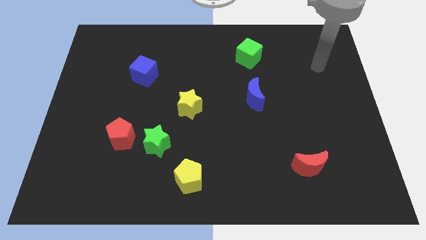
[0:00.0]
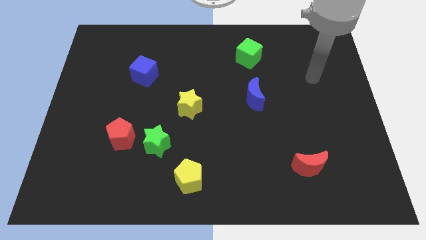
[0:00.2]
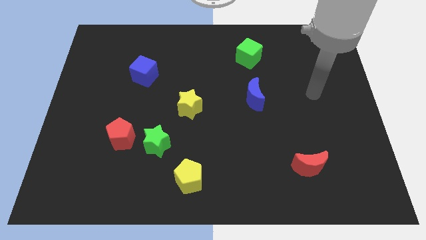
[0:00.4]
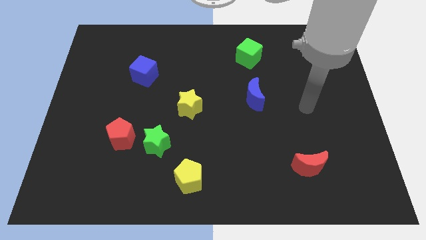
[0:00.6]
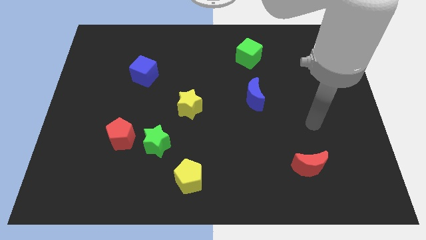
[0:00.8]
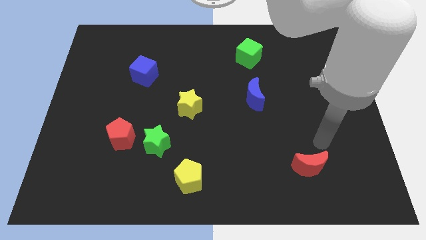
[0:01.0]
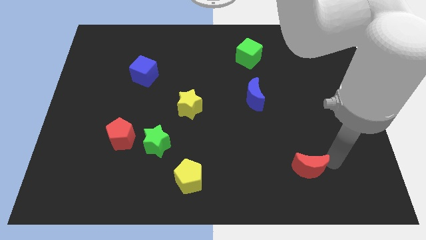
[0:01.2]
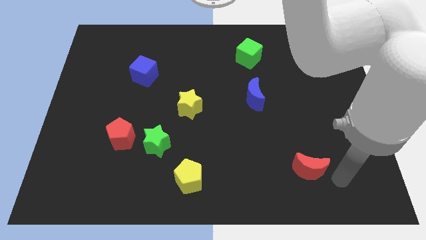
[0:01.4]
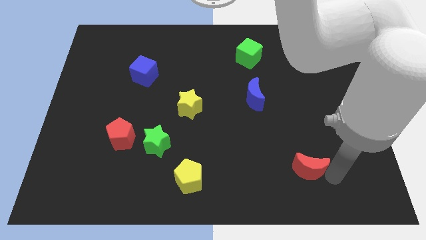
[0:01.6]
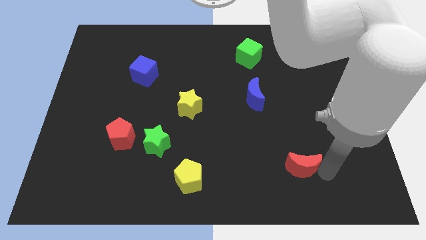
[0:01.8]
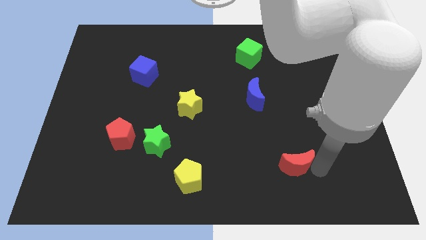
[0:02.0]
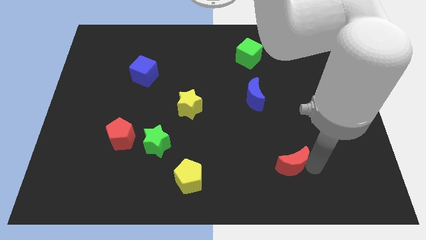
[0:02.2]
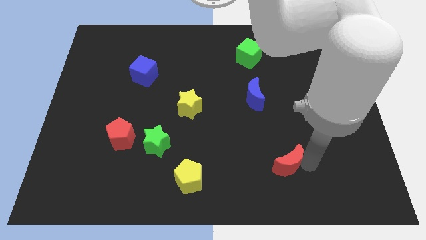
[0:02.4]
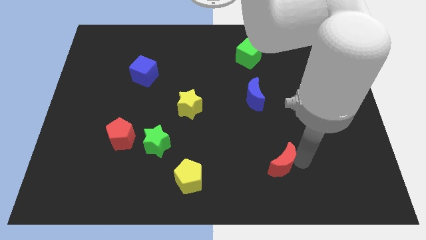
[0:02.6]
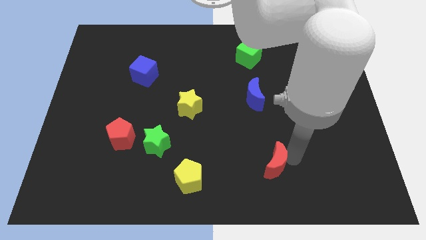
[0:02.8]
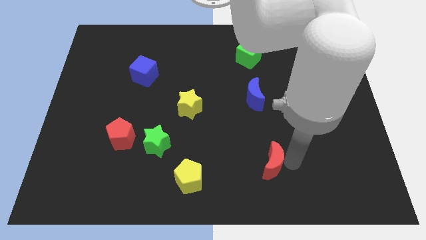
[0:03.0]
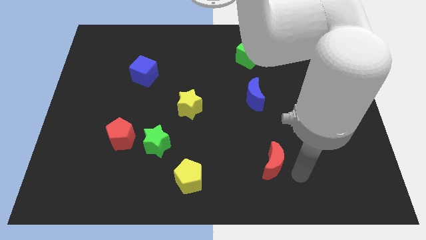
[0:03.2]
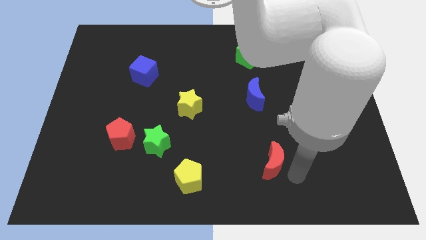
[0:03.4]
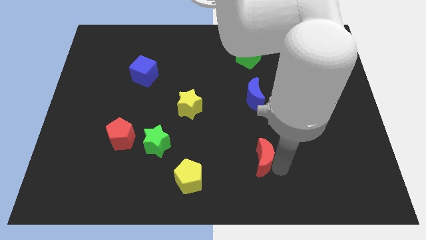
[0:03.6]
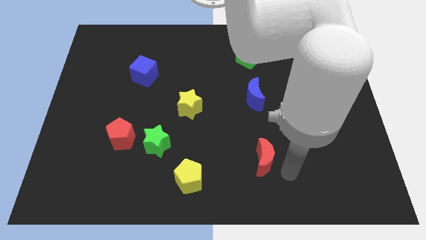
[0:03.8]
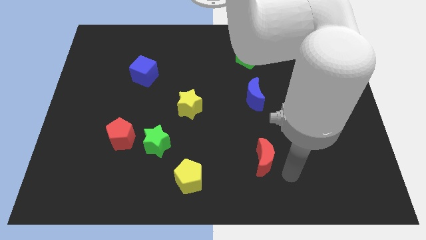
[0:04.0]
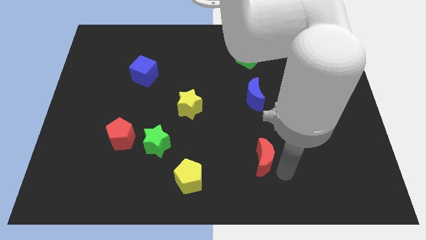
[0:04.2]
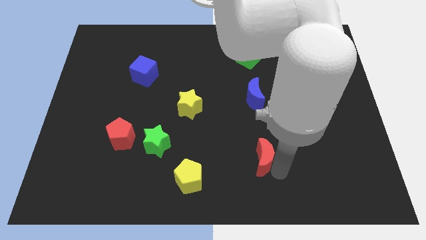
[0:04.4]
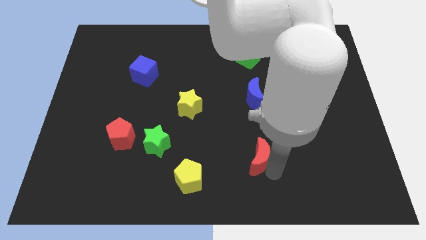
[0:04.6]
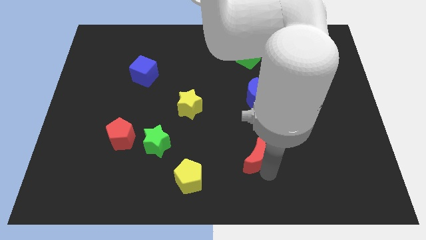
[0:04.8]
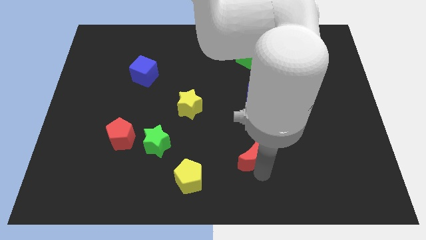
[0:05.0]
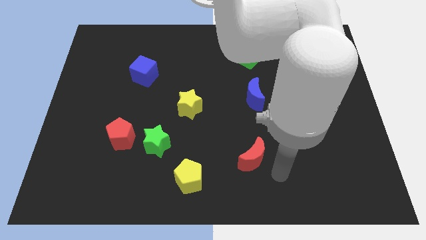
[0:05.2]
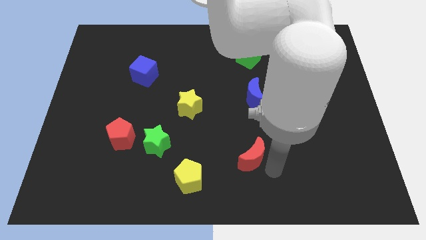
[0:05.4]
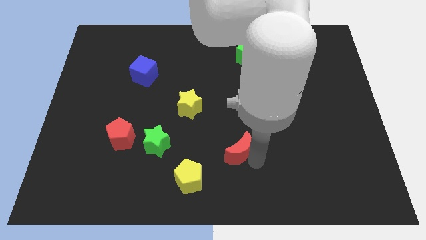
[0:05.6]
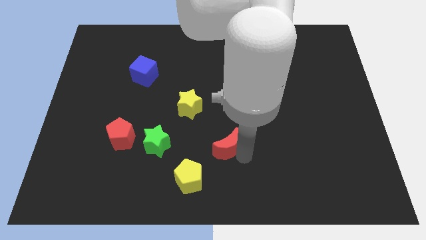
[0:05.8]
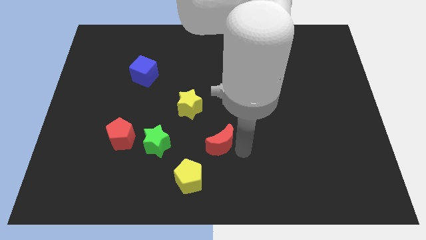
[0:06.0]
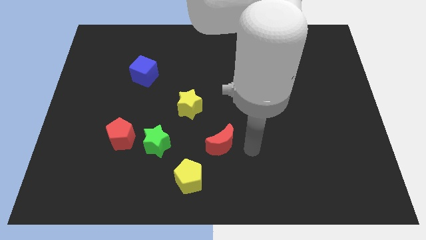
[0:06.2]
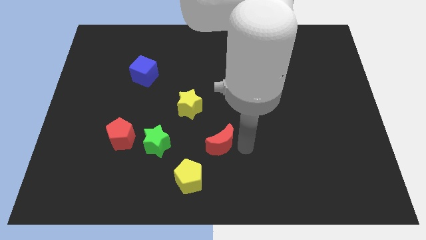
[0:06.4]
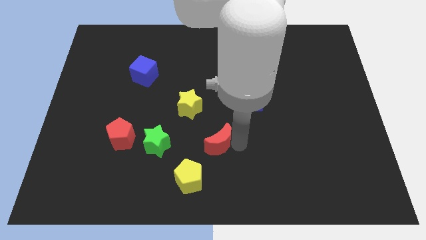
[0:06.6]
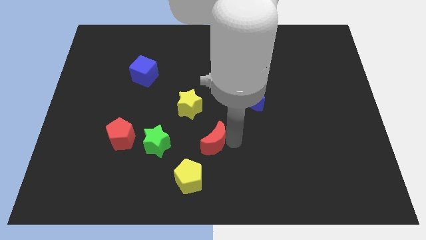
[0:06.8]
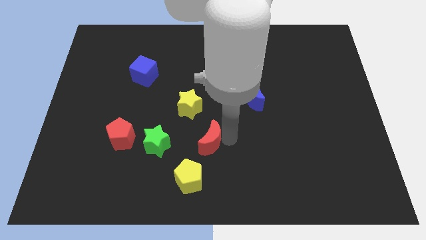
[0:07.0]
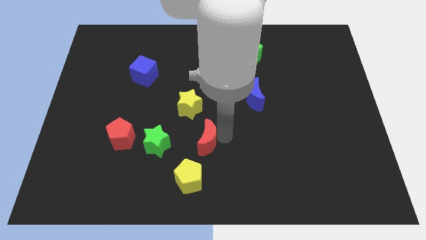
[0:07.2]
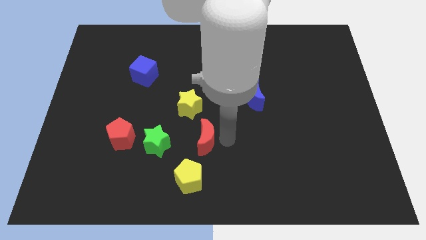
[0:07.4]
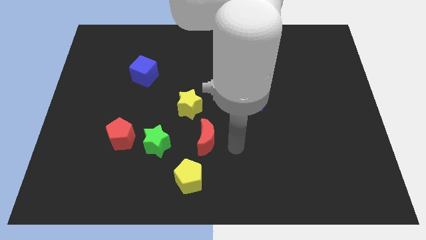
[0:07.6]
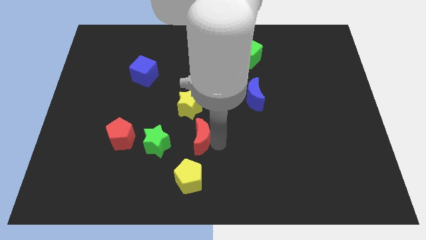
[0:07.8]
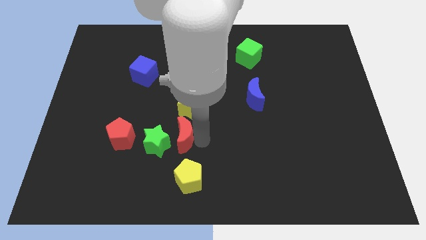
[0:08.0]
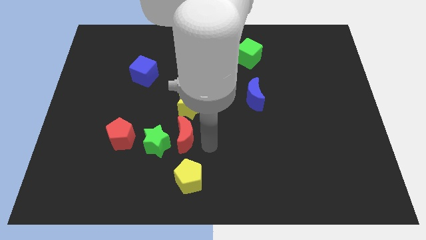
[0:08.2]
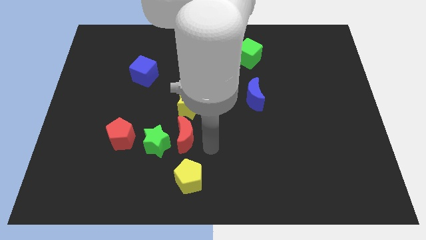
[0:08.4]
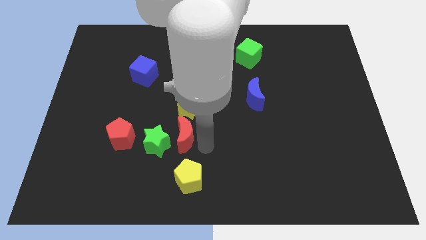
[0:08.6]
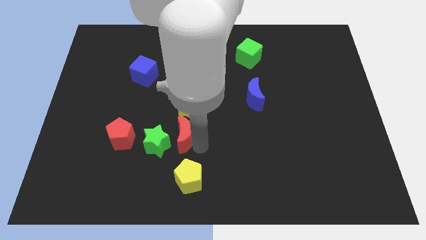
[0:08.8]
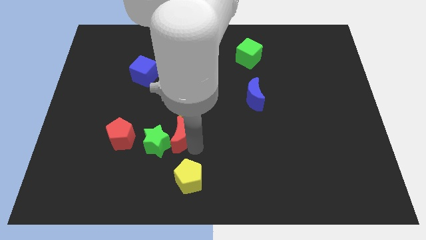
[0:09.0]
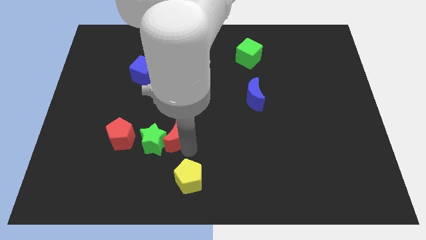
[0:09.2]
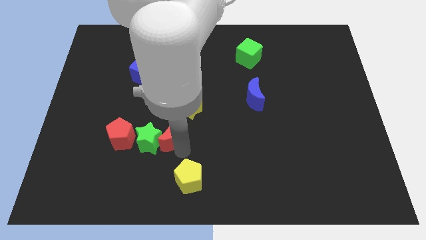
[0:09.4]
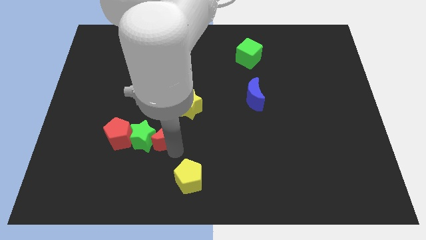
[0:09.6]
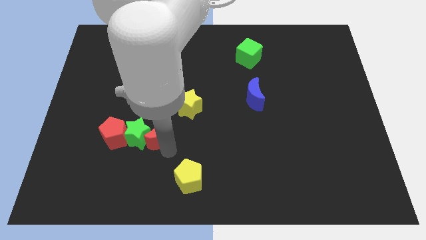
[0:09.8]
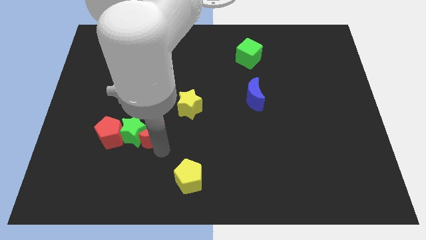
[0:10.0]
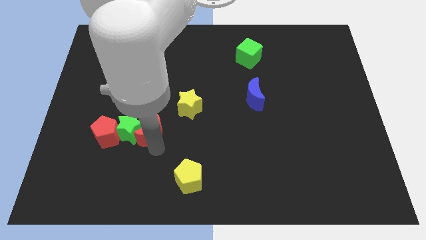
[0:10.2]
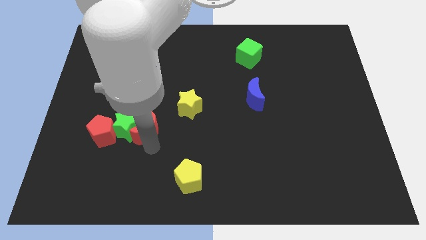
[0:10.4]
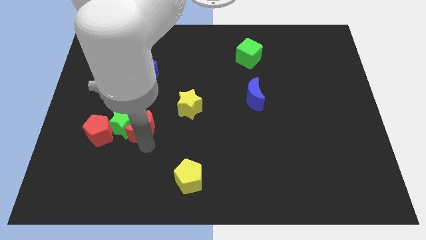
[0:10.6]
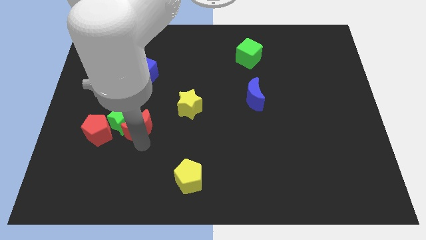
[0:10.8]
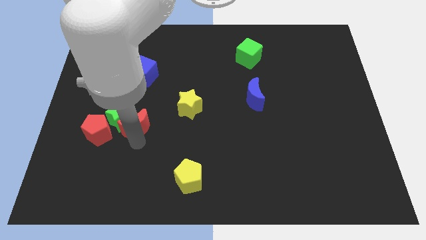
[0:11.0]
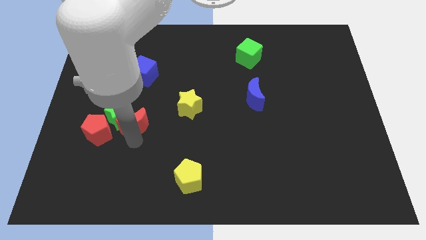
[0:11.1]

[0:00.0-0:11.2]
push the red moon to the bottom of the blue cube

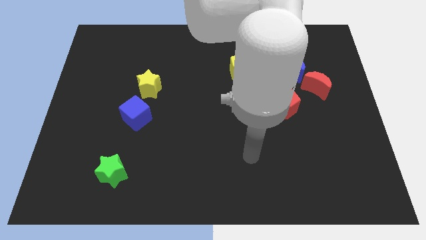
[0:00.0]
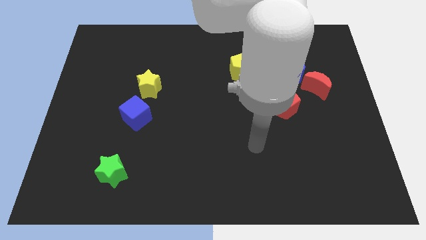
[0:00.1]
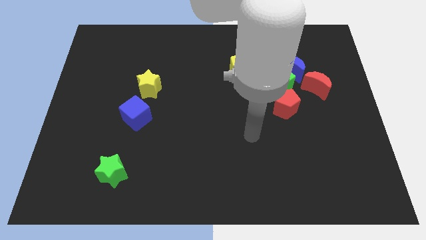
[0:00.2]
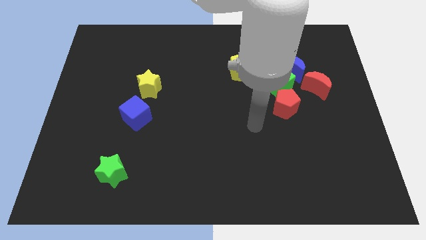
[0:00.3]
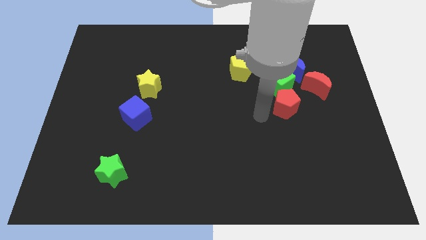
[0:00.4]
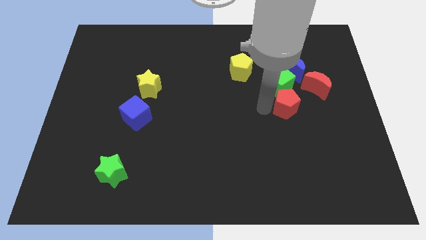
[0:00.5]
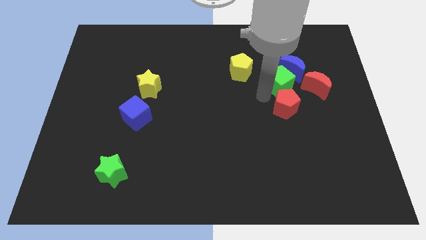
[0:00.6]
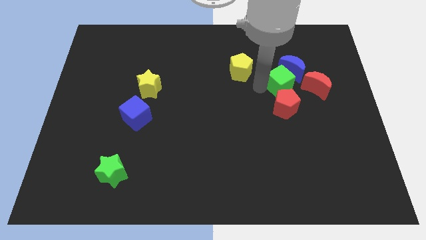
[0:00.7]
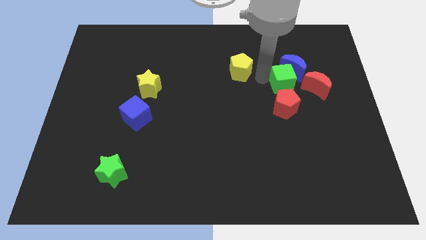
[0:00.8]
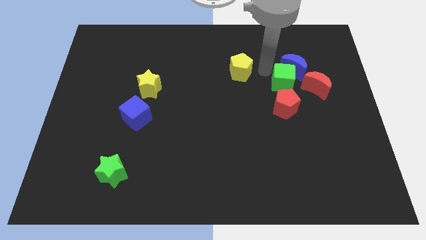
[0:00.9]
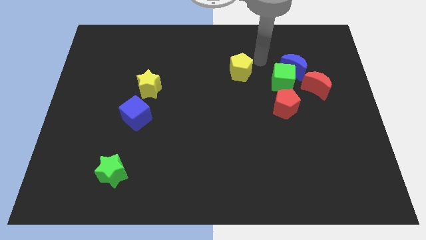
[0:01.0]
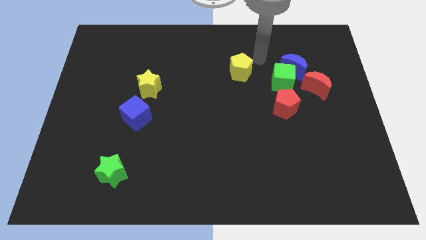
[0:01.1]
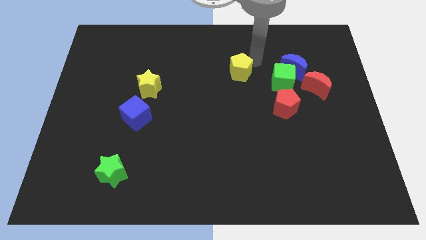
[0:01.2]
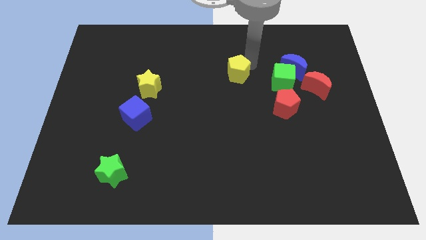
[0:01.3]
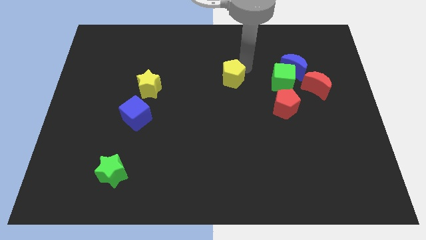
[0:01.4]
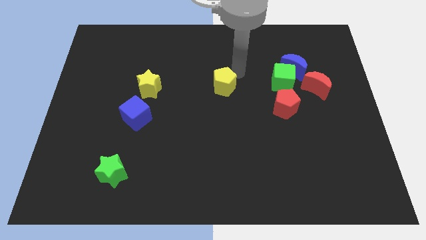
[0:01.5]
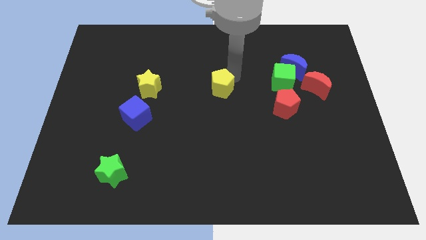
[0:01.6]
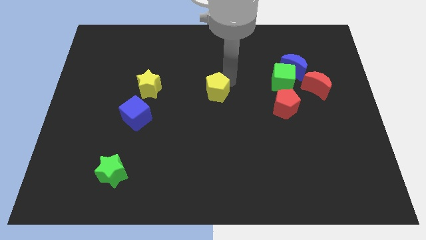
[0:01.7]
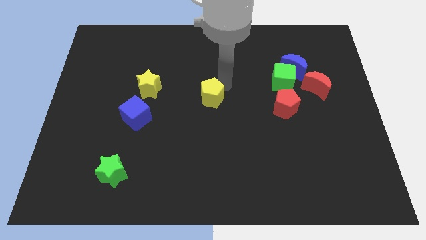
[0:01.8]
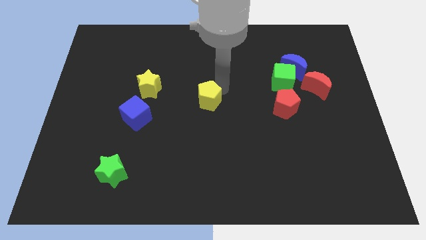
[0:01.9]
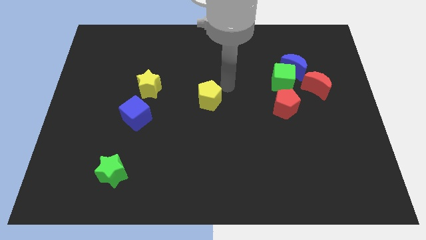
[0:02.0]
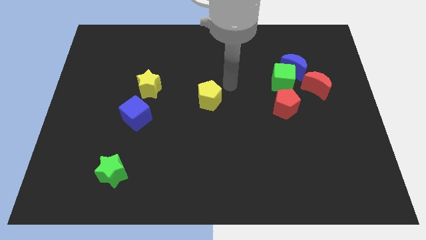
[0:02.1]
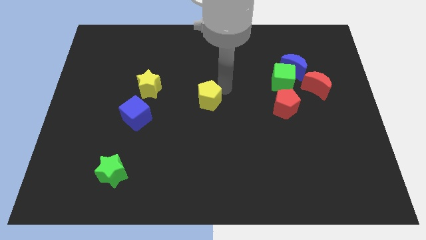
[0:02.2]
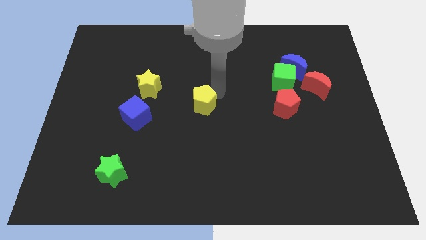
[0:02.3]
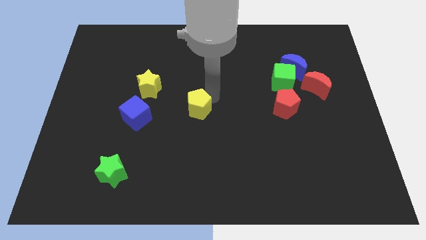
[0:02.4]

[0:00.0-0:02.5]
push the yellow pentagon right of the blue cube
